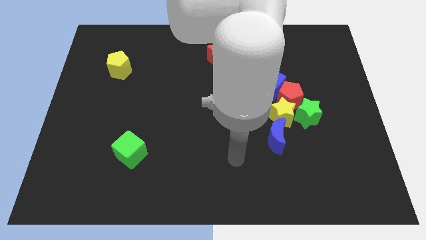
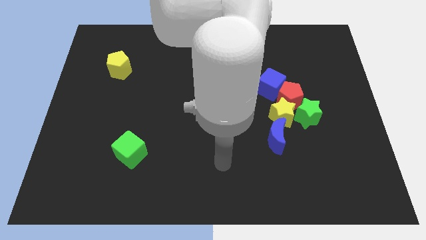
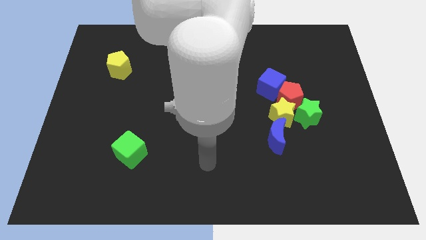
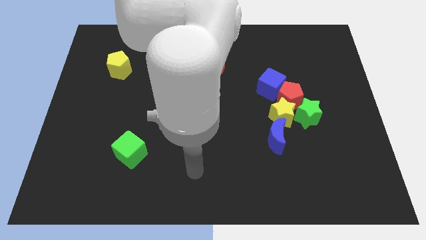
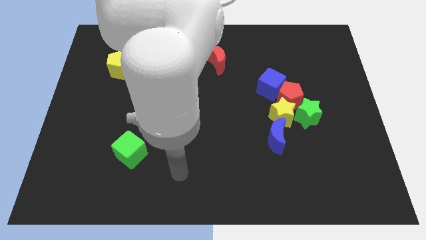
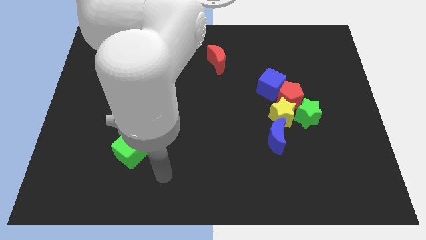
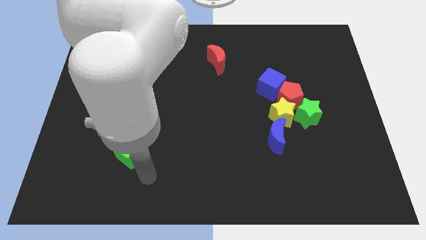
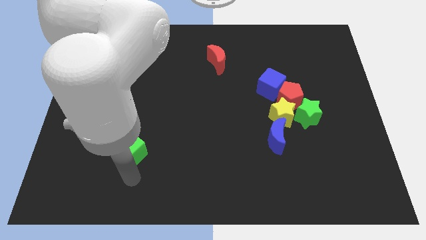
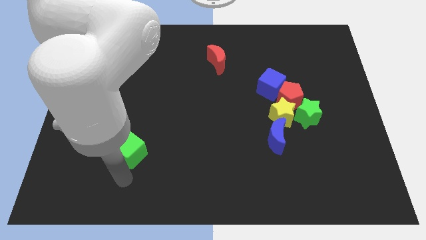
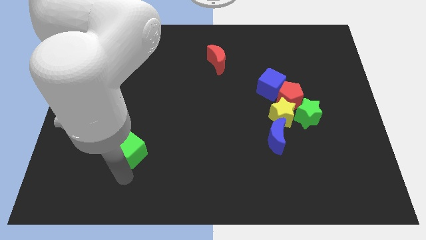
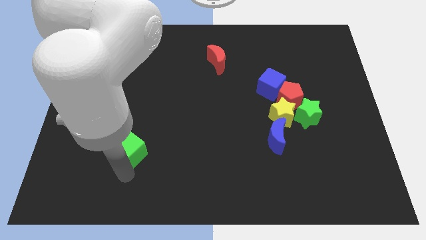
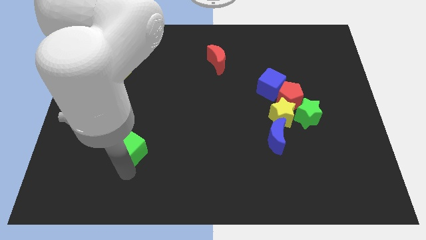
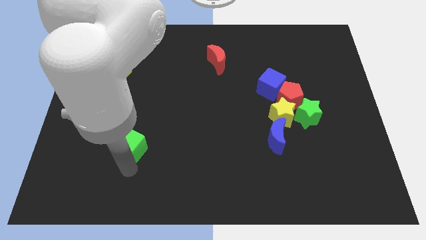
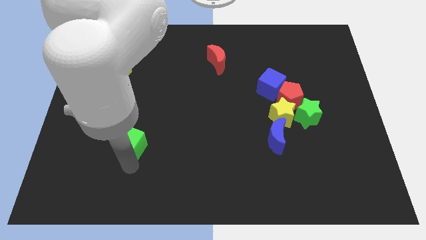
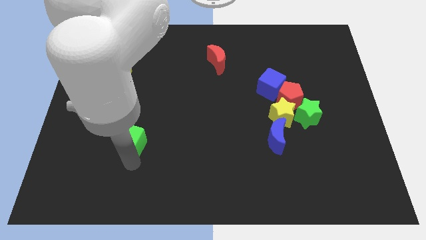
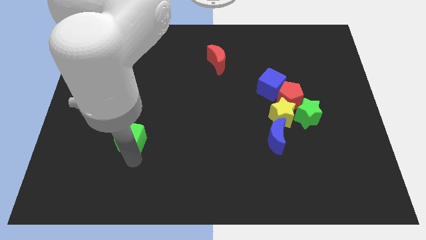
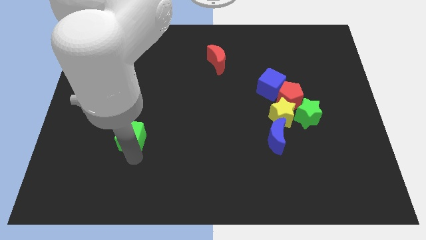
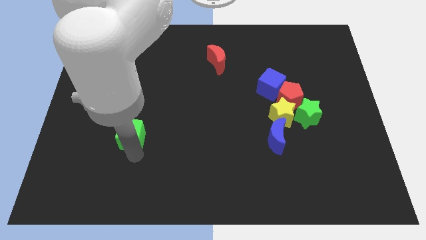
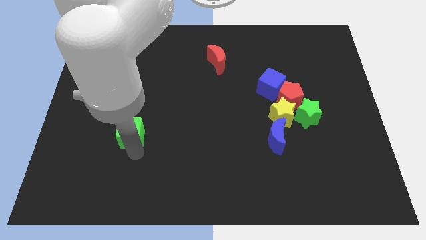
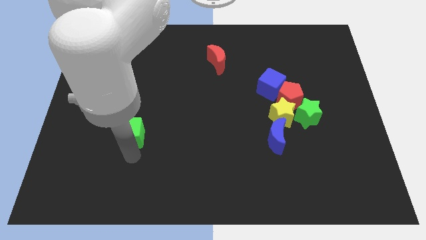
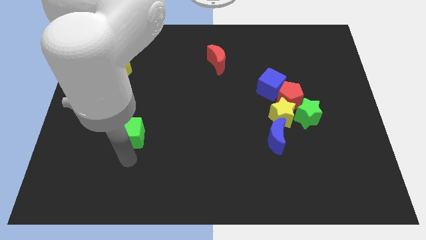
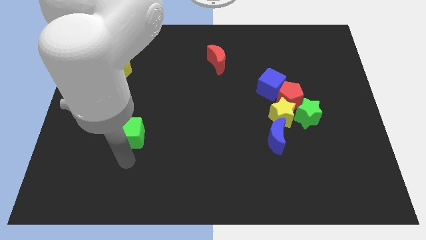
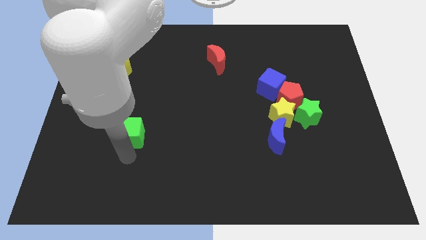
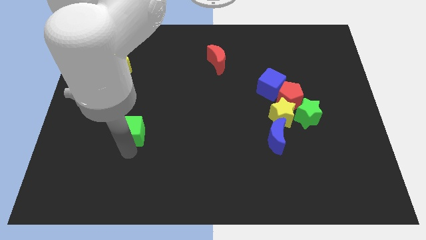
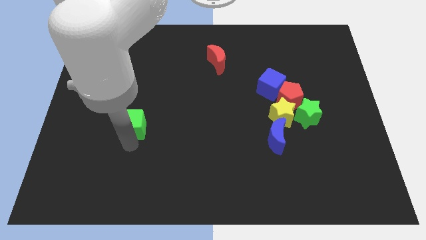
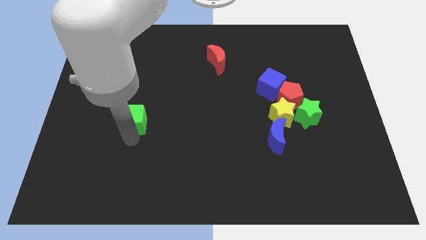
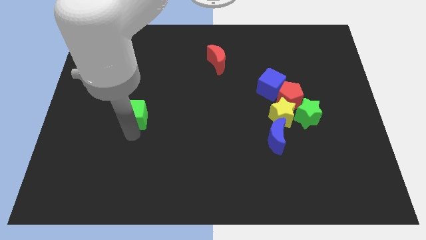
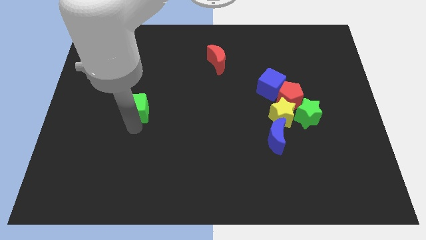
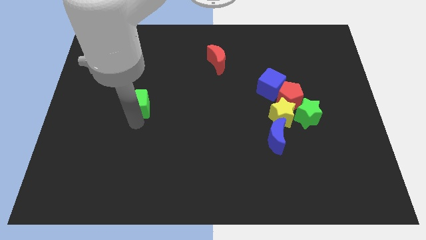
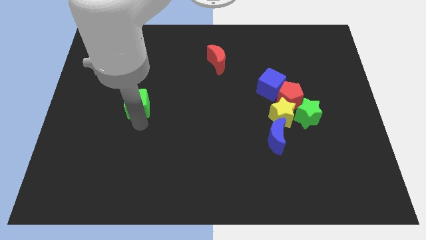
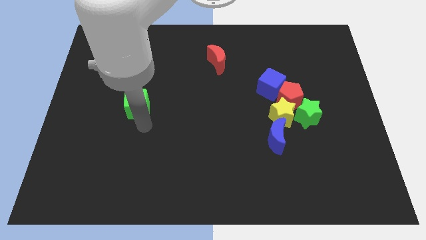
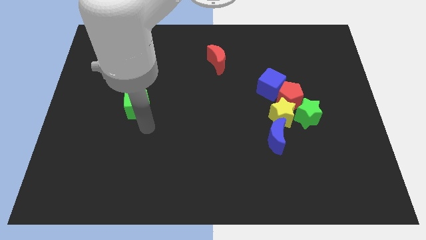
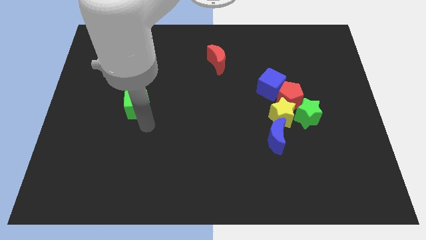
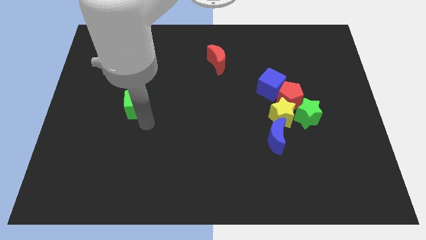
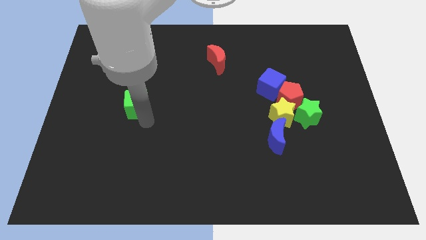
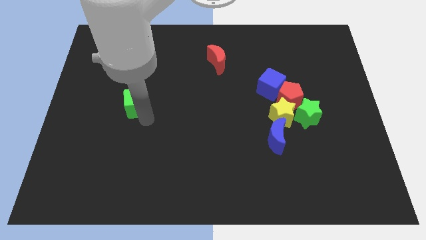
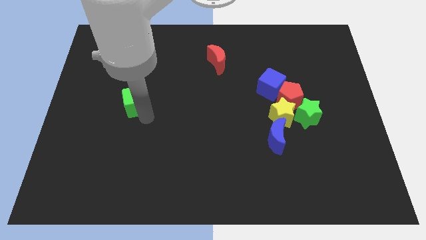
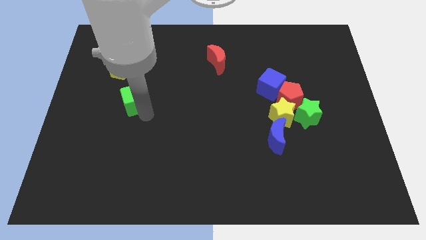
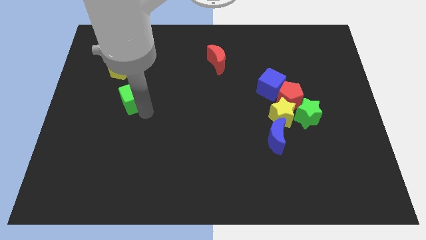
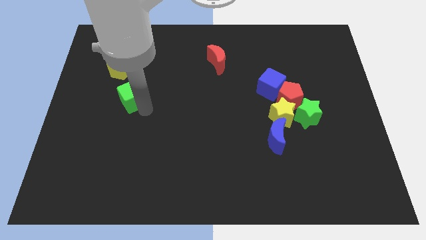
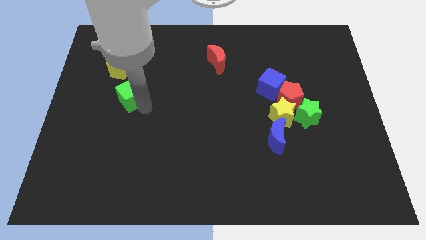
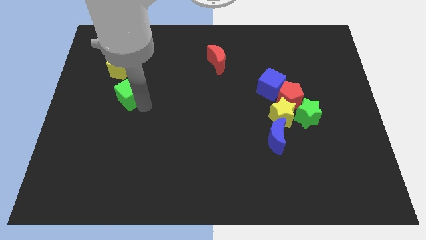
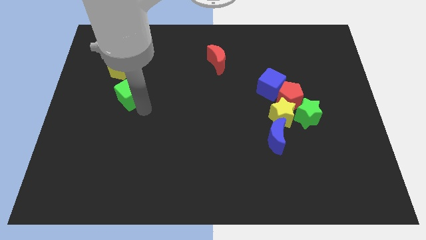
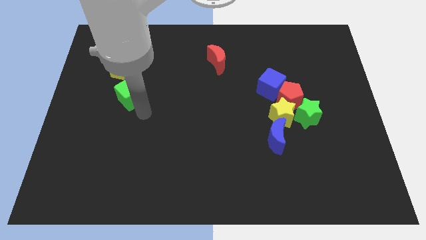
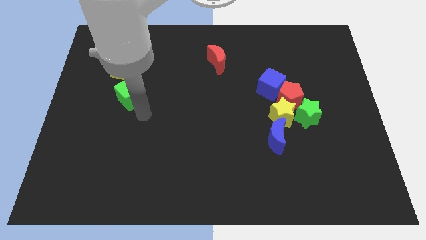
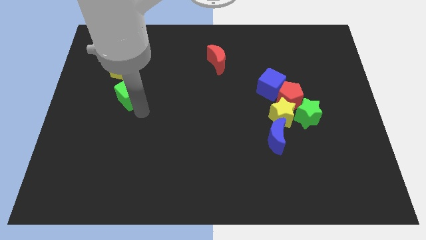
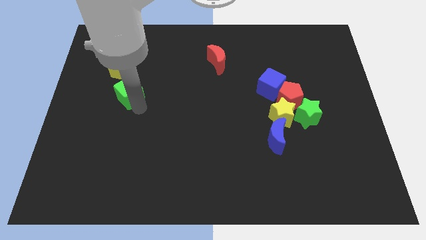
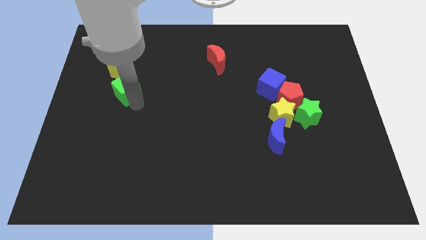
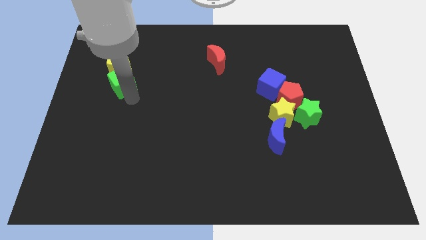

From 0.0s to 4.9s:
slide the green cube close to the yellow pentagon

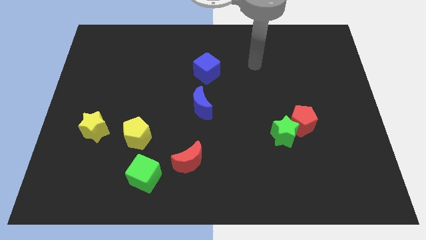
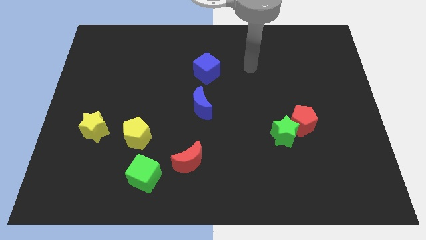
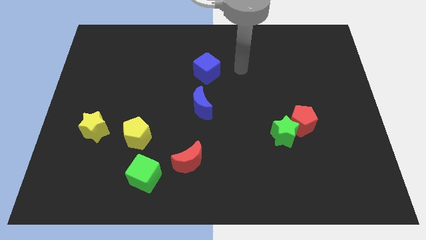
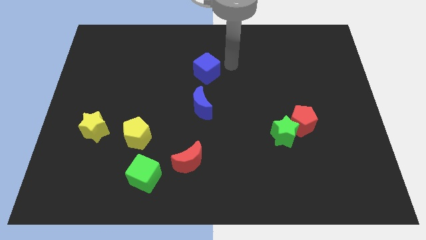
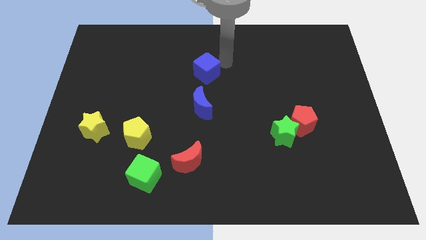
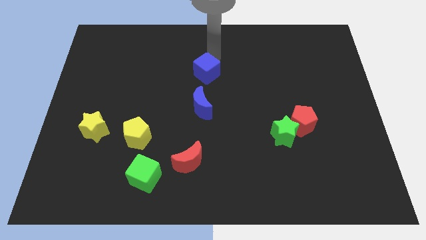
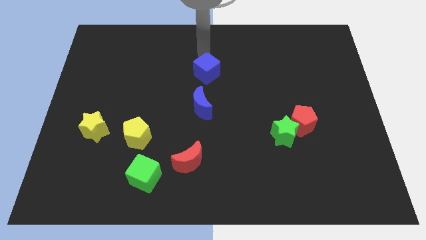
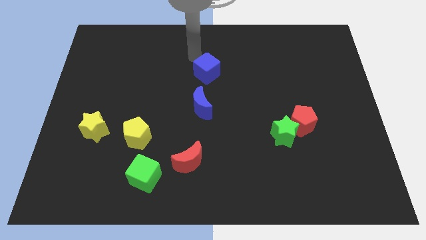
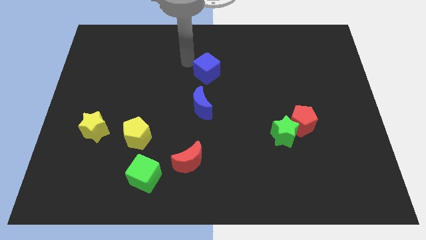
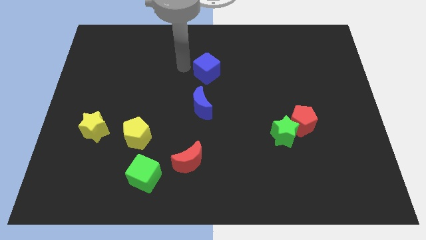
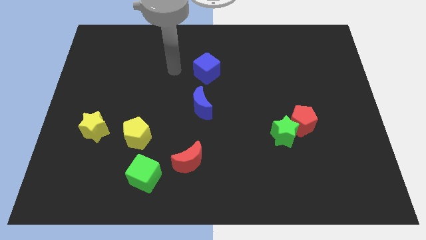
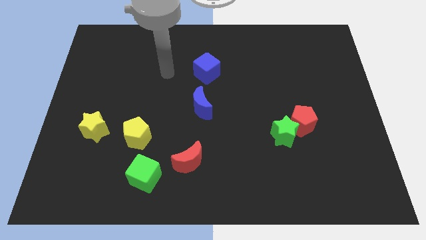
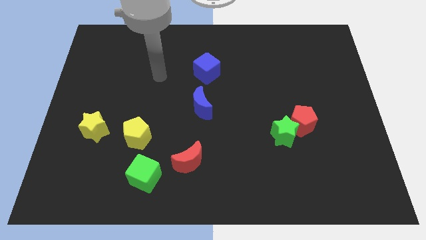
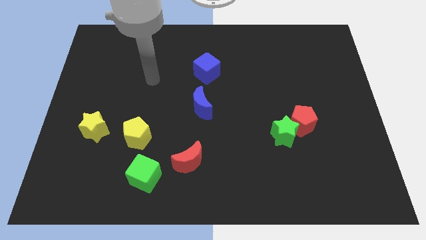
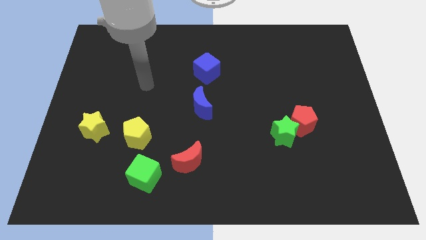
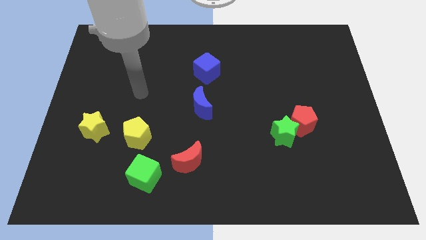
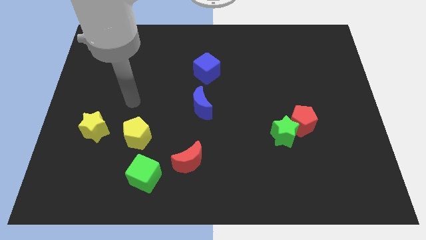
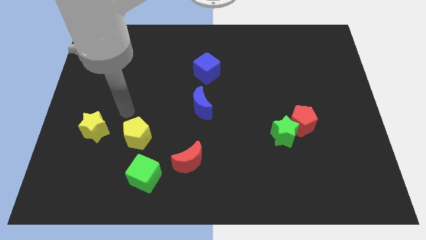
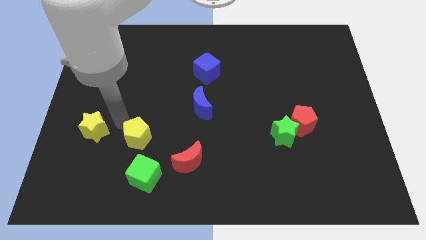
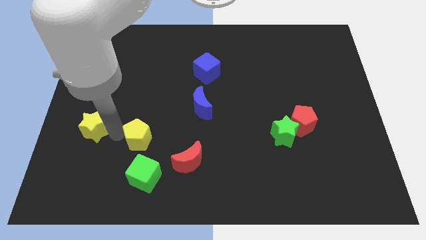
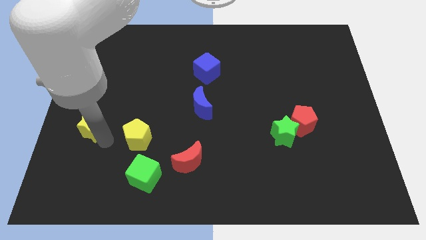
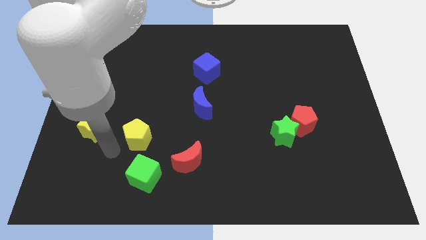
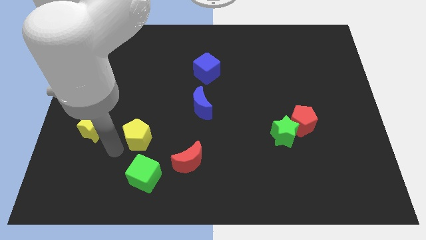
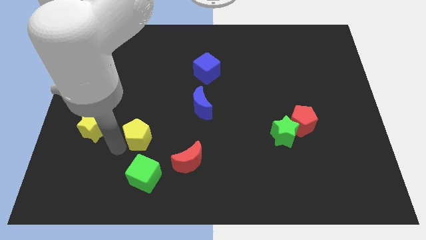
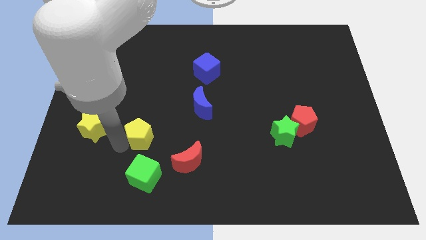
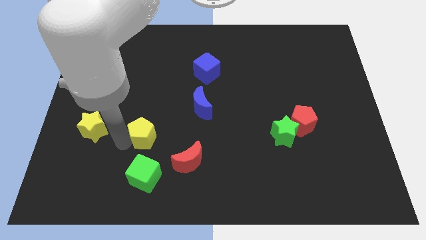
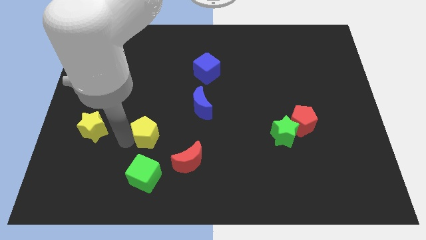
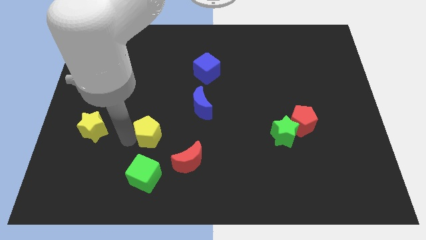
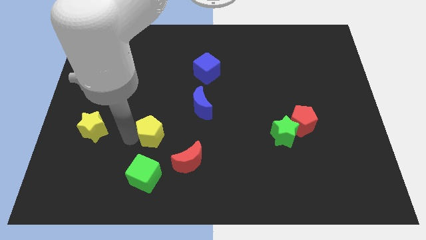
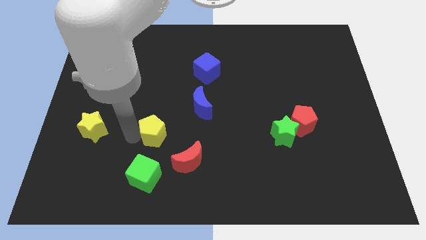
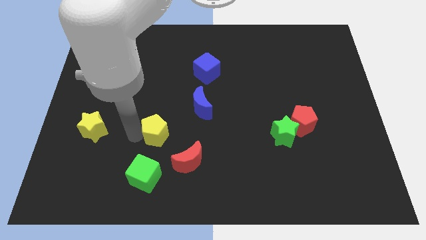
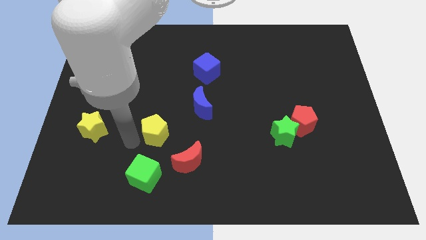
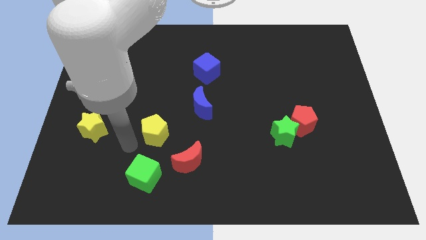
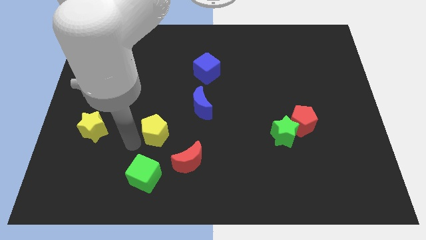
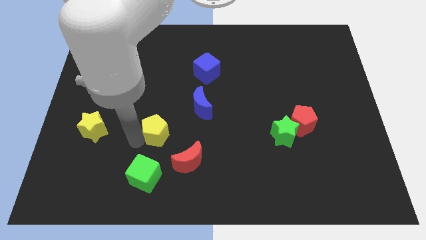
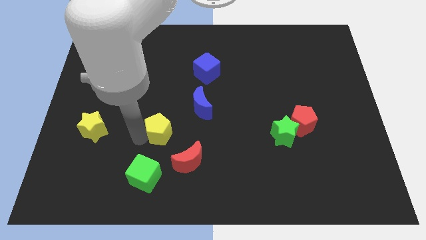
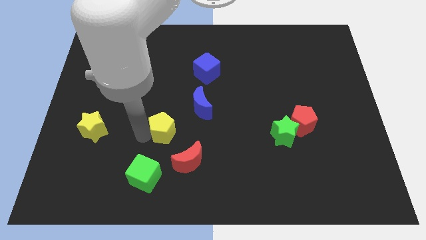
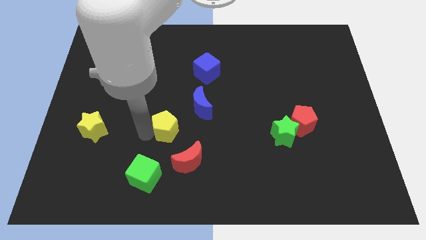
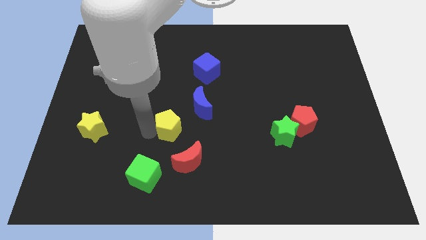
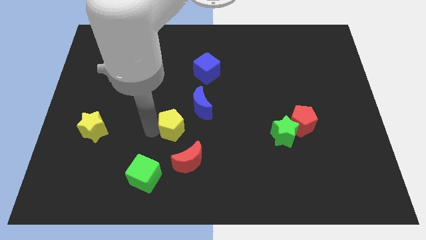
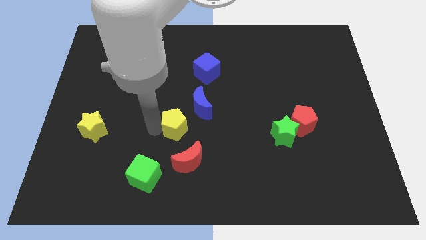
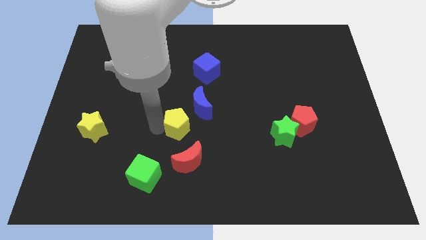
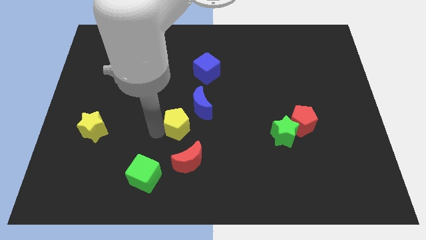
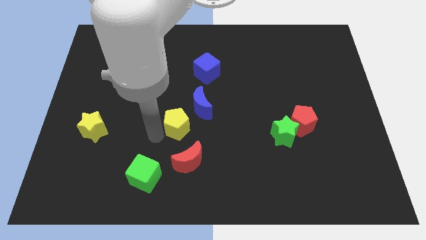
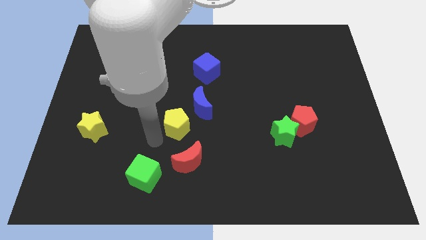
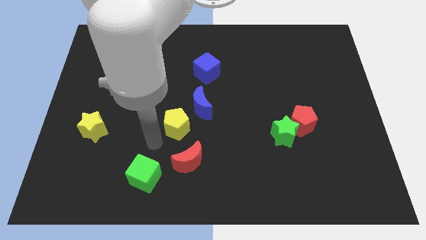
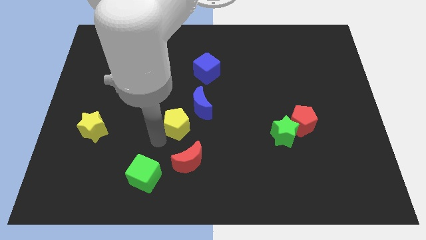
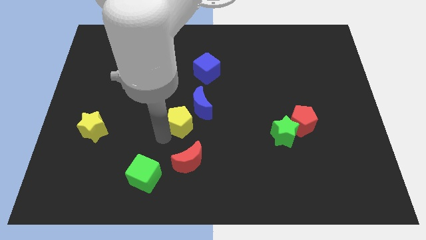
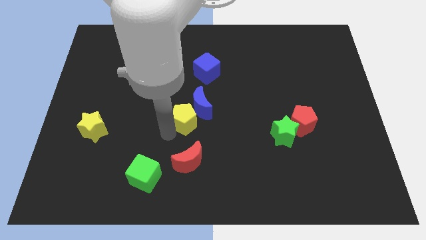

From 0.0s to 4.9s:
move the yellow pentagon close to the blue moon
